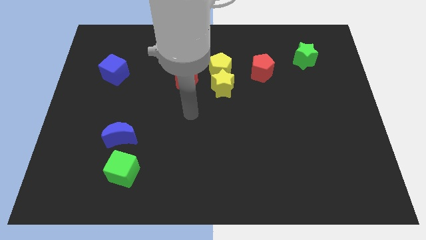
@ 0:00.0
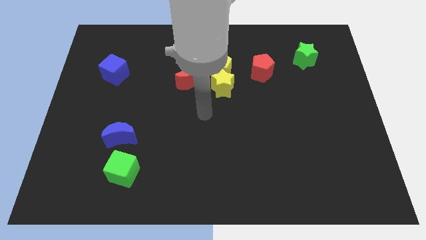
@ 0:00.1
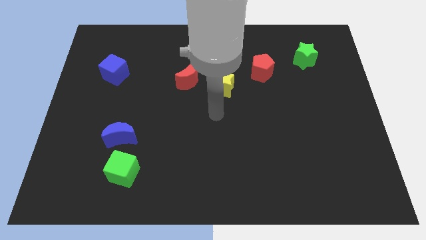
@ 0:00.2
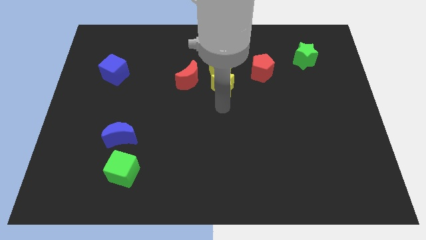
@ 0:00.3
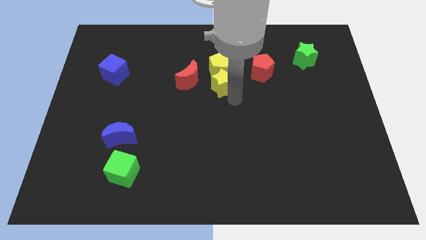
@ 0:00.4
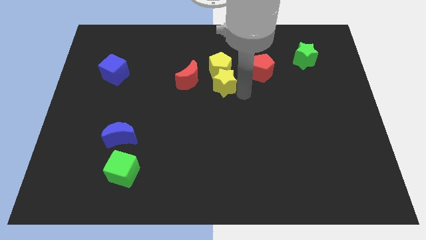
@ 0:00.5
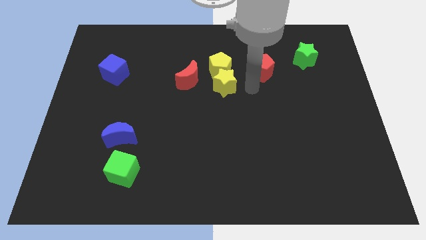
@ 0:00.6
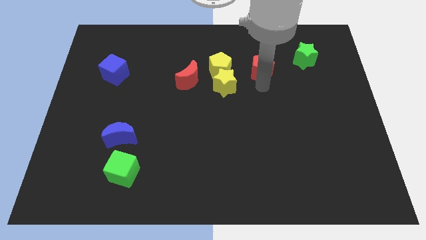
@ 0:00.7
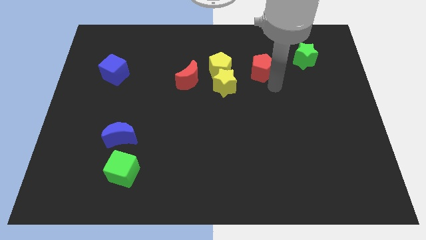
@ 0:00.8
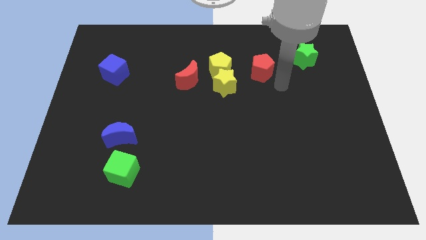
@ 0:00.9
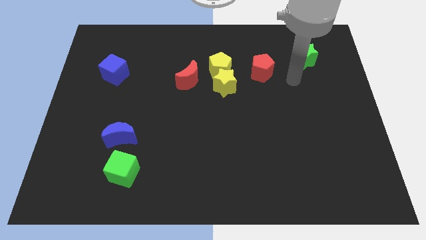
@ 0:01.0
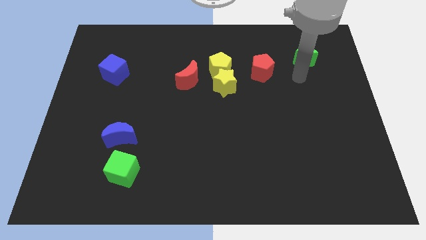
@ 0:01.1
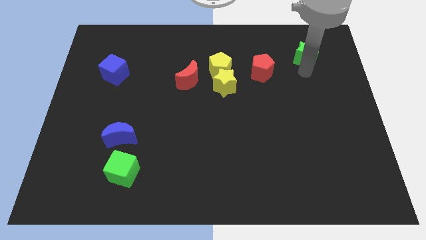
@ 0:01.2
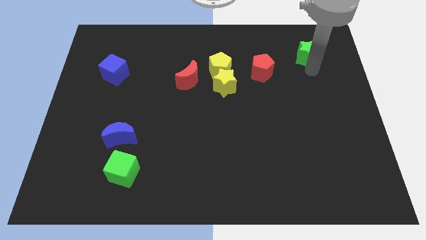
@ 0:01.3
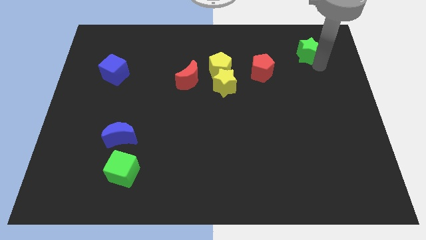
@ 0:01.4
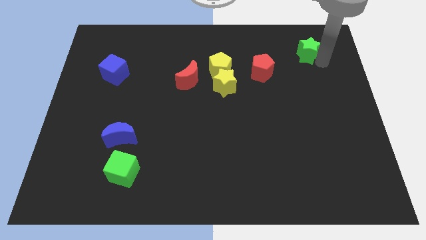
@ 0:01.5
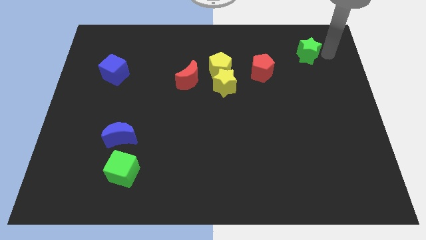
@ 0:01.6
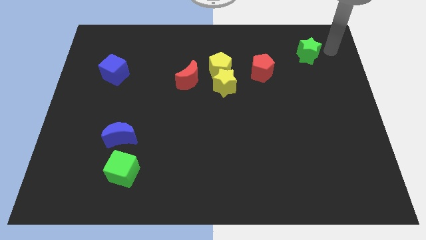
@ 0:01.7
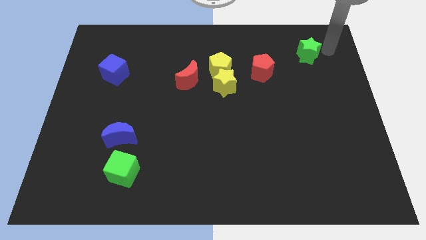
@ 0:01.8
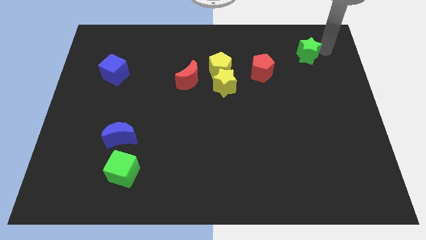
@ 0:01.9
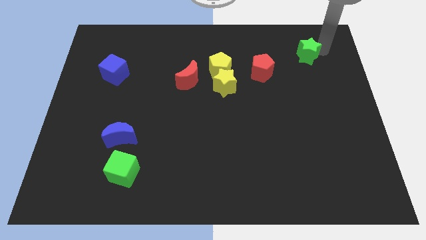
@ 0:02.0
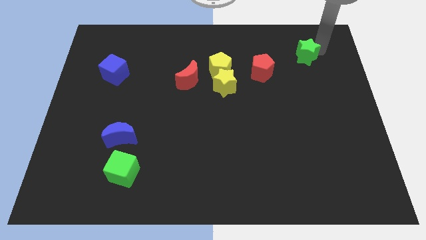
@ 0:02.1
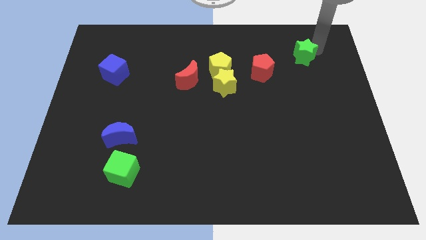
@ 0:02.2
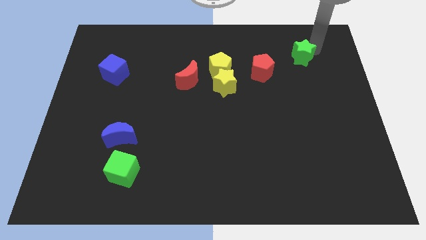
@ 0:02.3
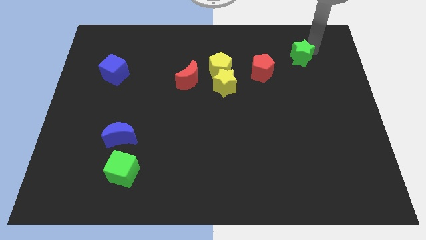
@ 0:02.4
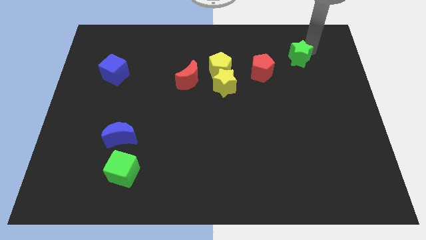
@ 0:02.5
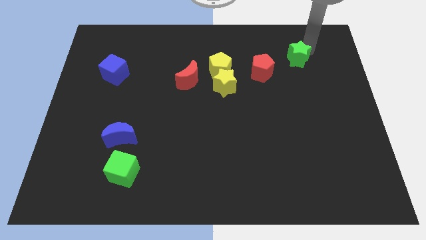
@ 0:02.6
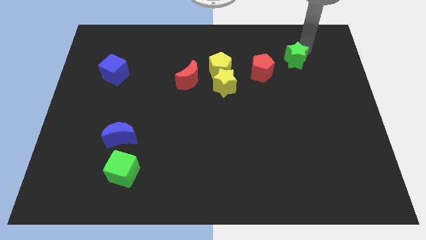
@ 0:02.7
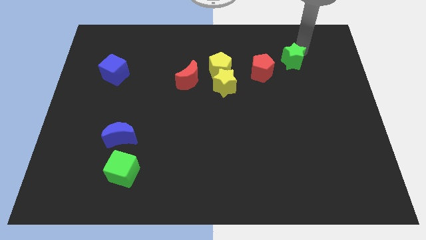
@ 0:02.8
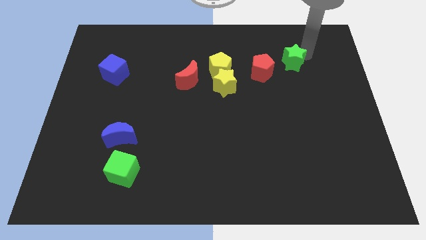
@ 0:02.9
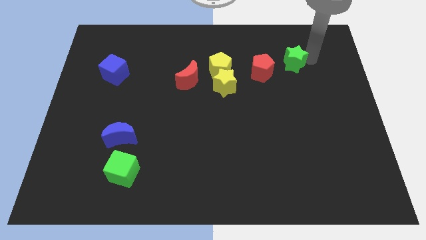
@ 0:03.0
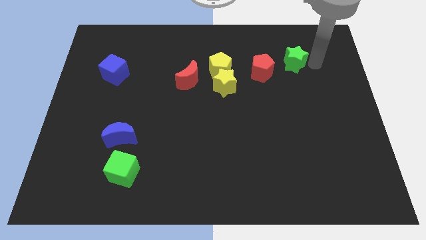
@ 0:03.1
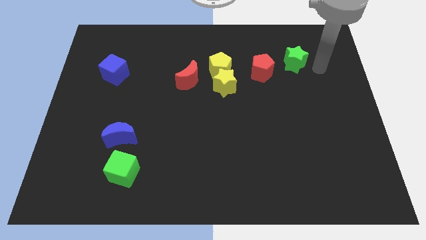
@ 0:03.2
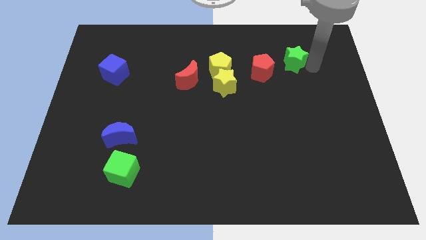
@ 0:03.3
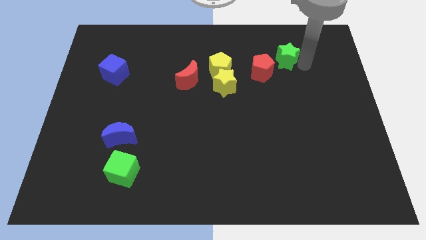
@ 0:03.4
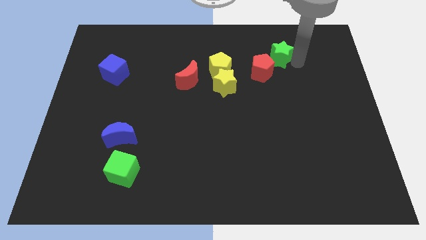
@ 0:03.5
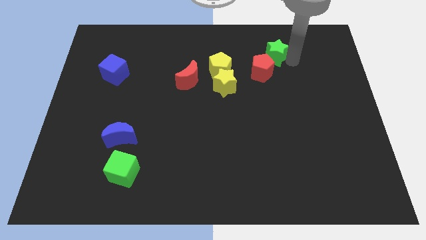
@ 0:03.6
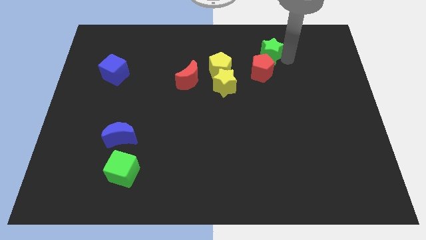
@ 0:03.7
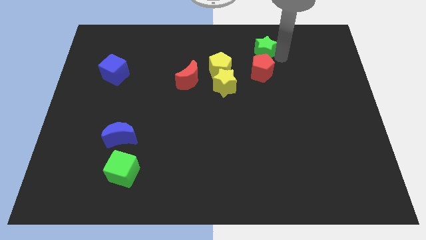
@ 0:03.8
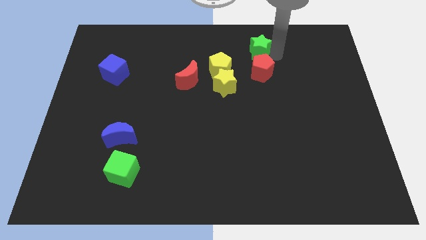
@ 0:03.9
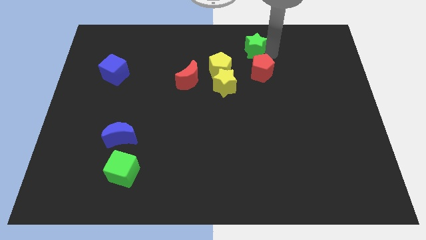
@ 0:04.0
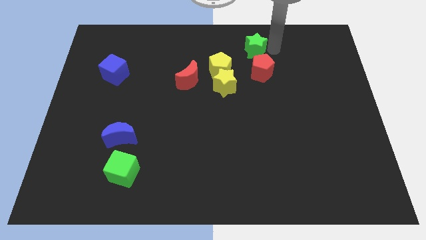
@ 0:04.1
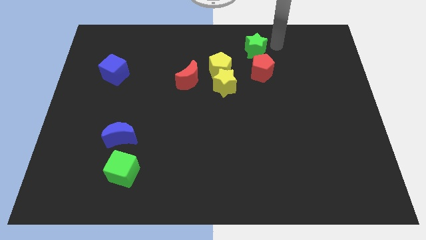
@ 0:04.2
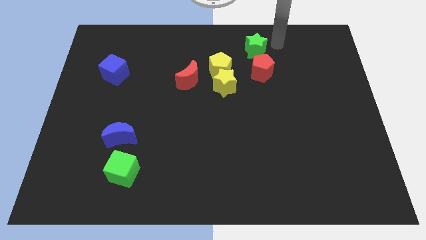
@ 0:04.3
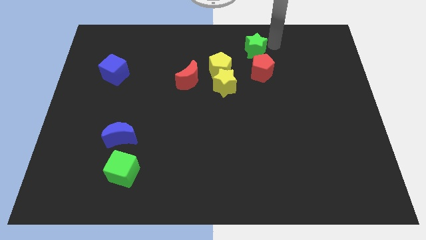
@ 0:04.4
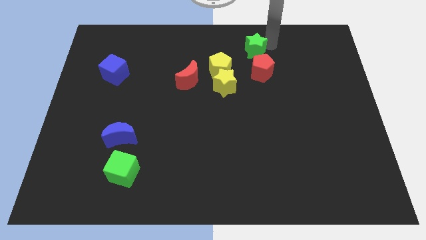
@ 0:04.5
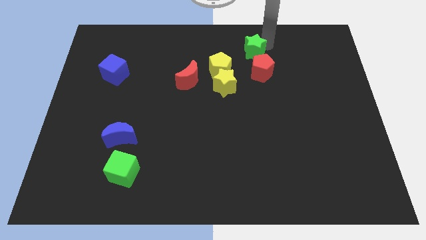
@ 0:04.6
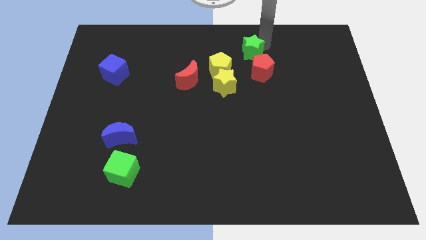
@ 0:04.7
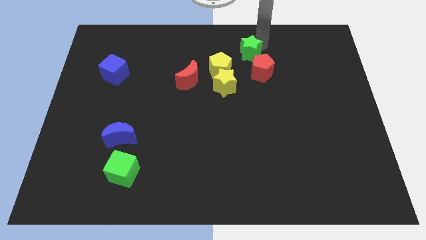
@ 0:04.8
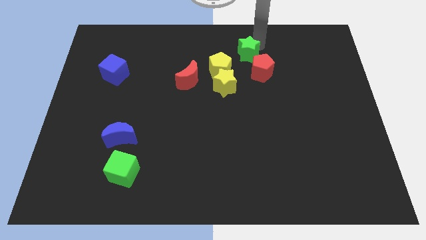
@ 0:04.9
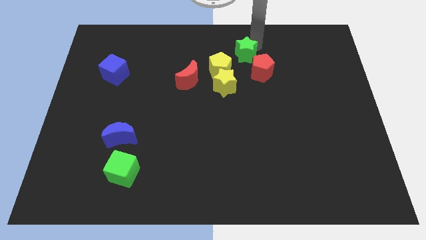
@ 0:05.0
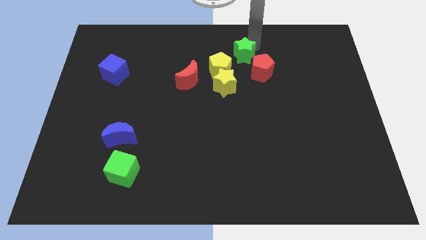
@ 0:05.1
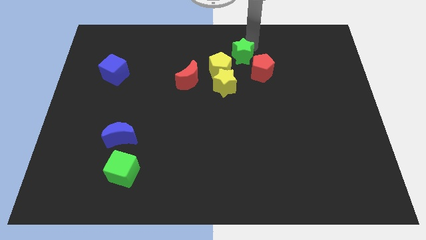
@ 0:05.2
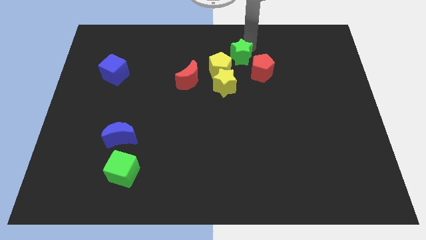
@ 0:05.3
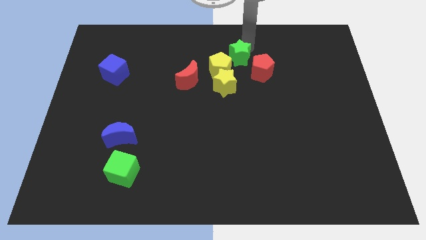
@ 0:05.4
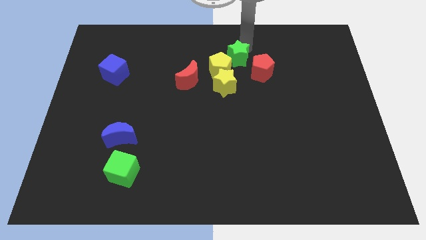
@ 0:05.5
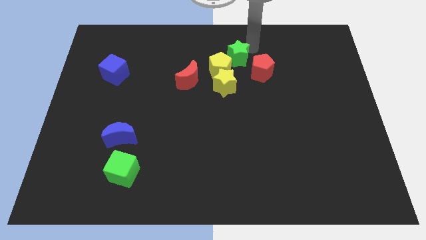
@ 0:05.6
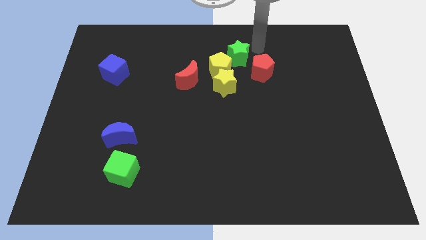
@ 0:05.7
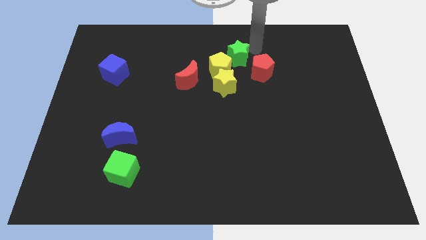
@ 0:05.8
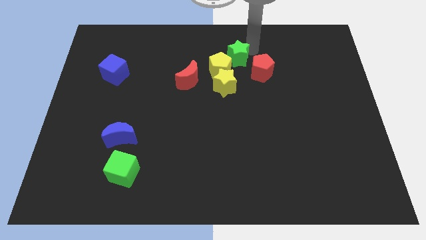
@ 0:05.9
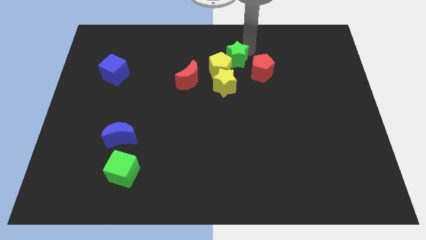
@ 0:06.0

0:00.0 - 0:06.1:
push the green star left of the red pentagon

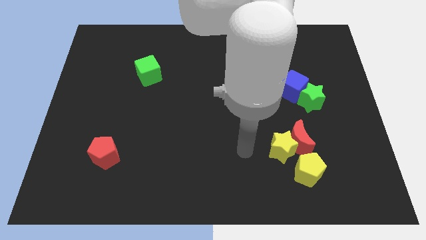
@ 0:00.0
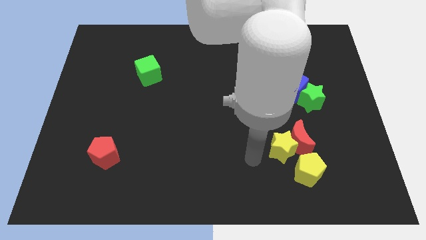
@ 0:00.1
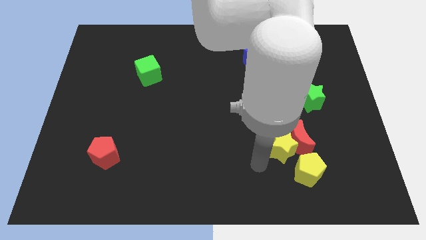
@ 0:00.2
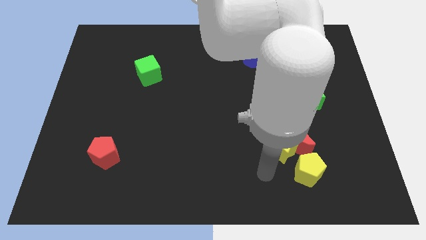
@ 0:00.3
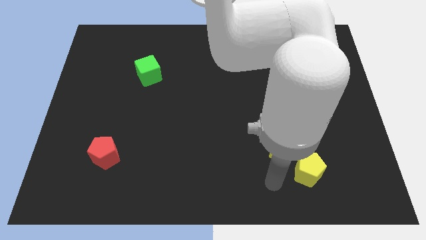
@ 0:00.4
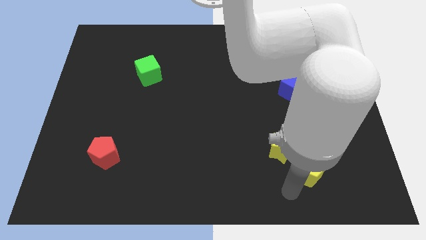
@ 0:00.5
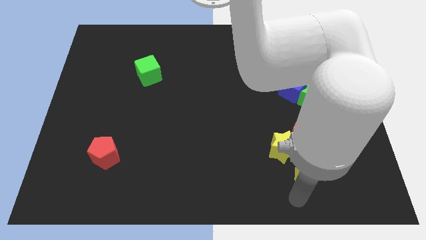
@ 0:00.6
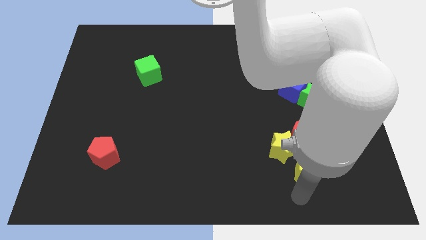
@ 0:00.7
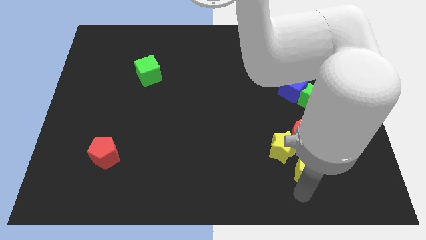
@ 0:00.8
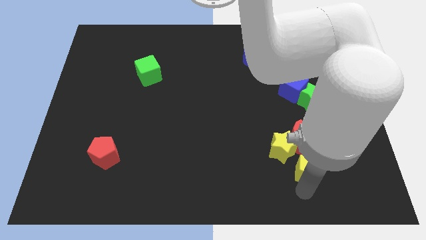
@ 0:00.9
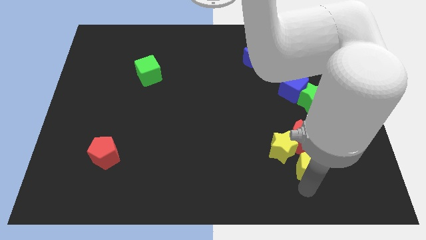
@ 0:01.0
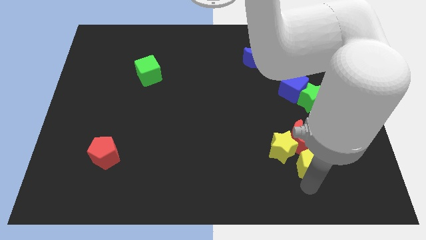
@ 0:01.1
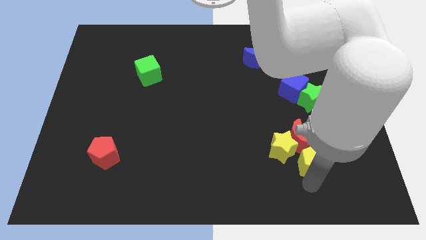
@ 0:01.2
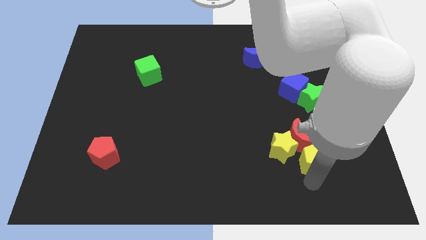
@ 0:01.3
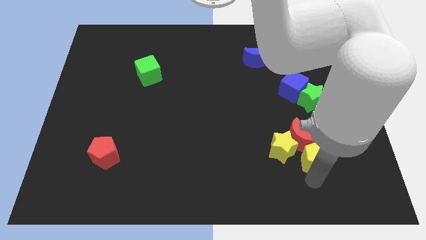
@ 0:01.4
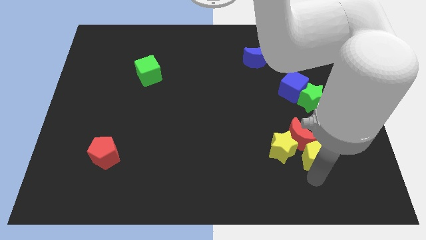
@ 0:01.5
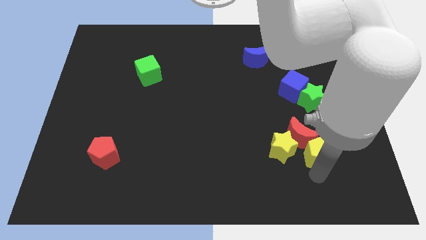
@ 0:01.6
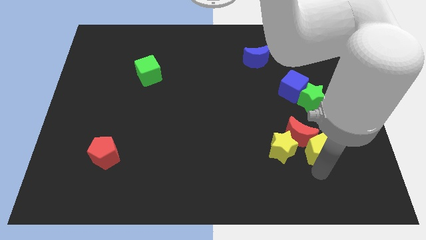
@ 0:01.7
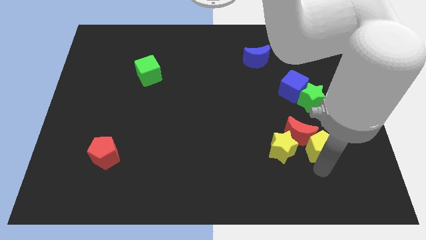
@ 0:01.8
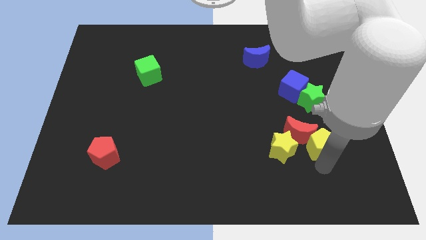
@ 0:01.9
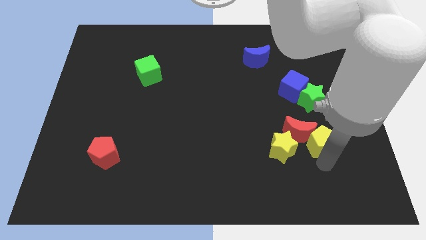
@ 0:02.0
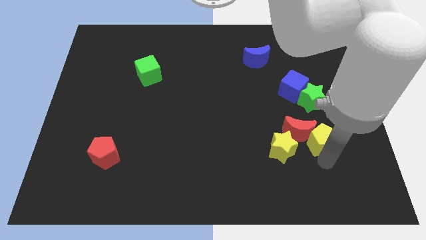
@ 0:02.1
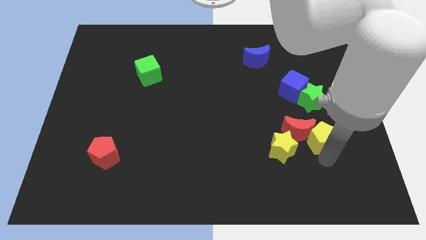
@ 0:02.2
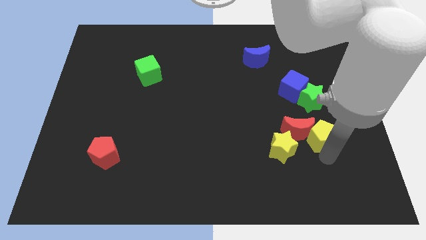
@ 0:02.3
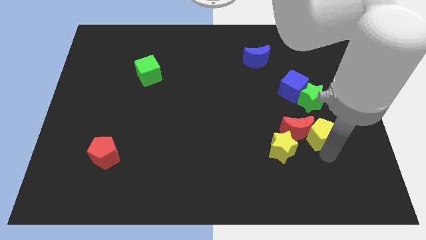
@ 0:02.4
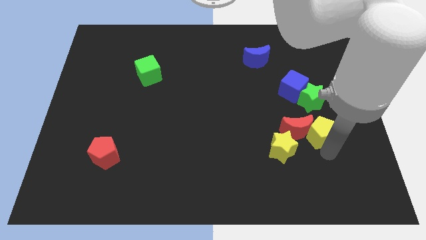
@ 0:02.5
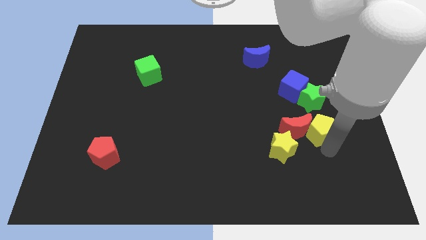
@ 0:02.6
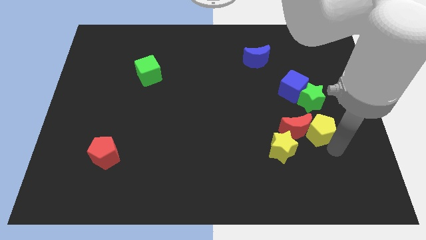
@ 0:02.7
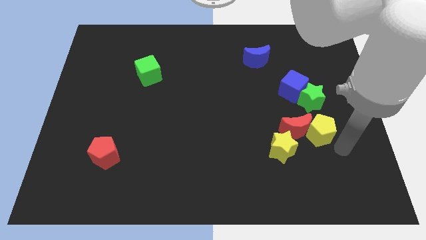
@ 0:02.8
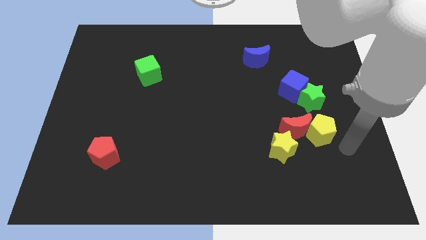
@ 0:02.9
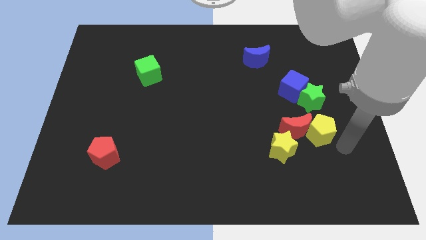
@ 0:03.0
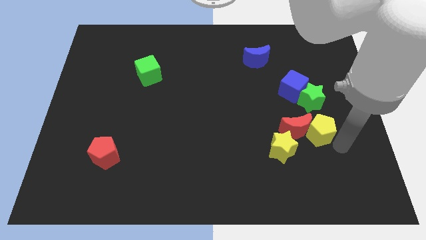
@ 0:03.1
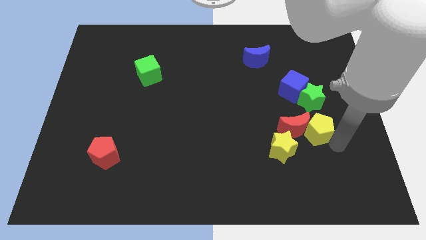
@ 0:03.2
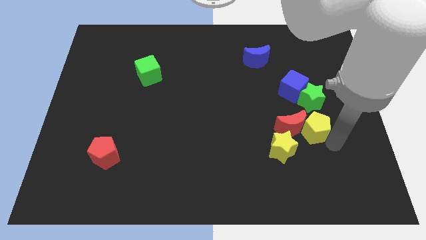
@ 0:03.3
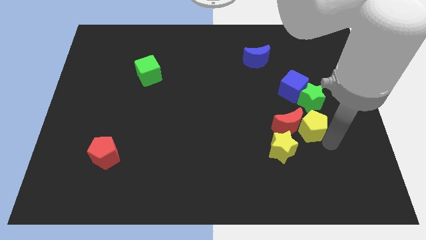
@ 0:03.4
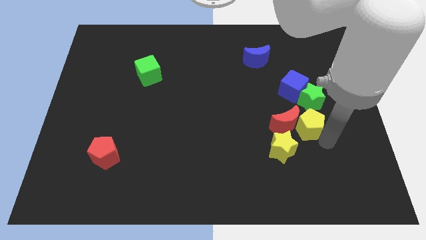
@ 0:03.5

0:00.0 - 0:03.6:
push the yellow pentagon diagonally down and to the left of the green star
